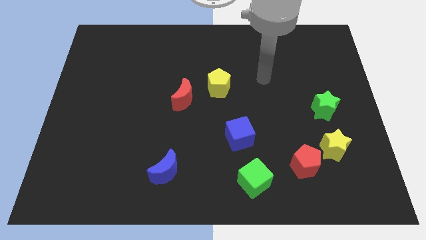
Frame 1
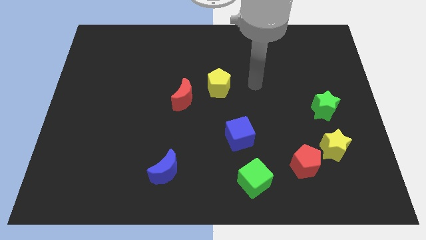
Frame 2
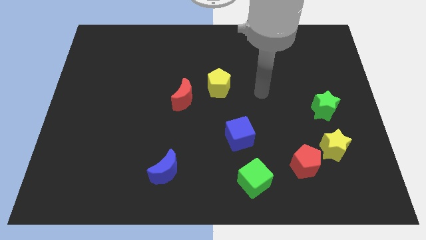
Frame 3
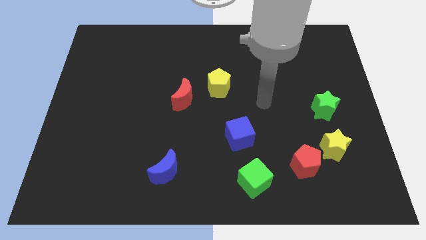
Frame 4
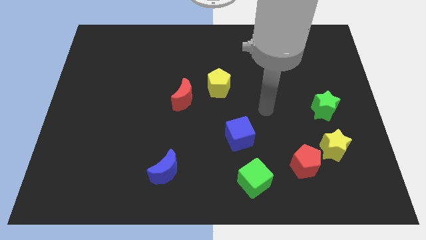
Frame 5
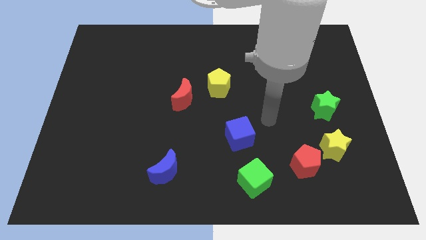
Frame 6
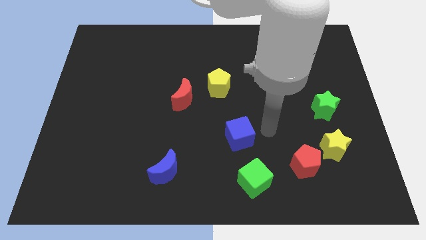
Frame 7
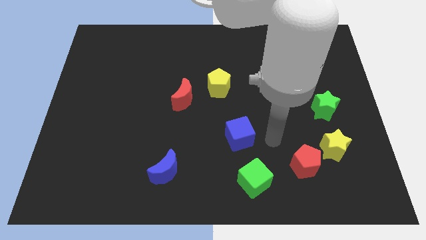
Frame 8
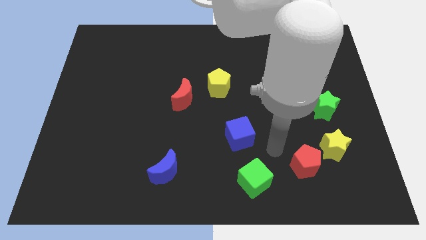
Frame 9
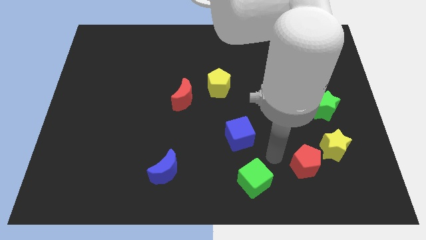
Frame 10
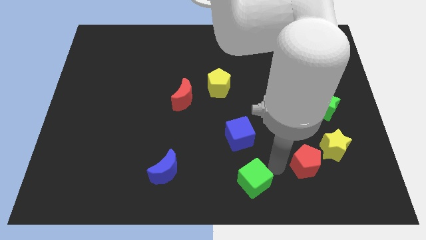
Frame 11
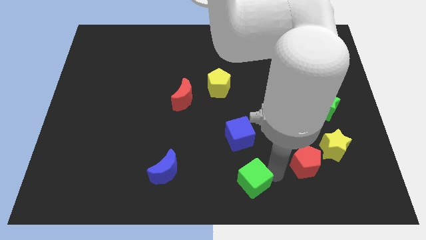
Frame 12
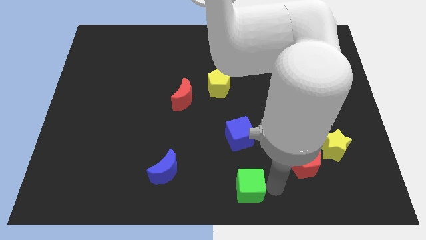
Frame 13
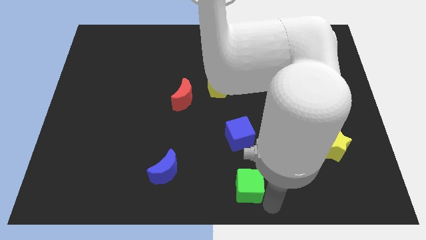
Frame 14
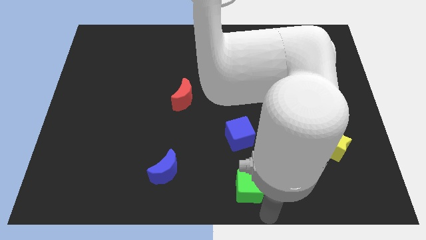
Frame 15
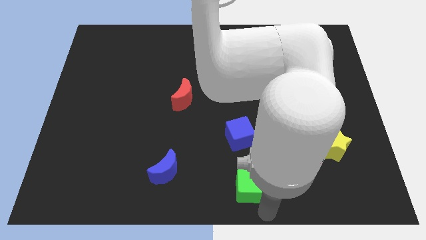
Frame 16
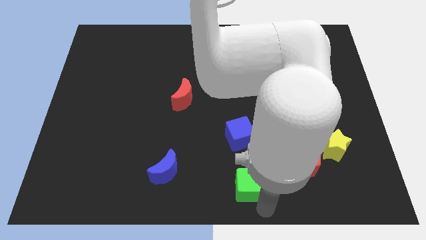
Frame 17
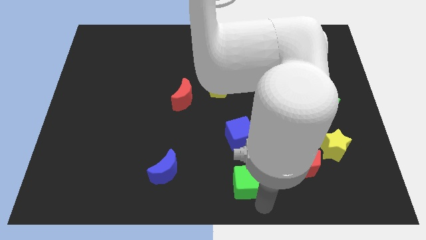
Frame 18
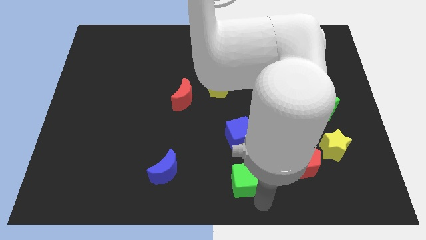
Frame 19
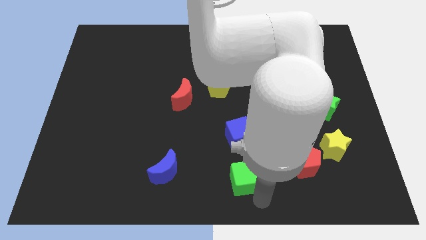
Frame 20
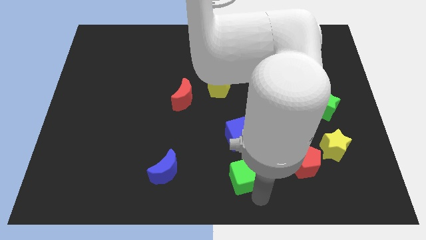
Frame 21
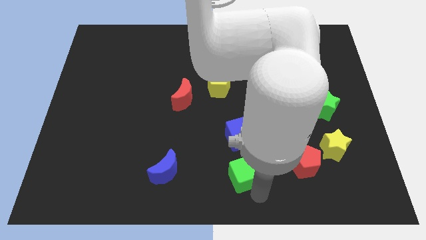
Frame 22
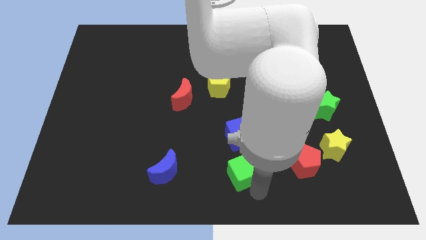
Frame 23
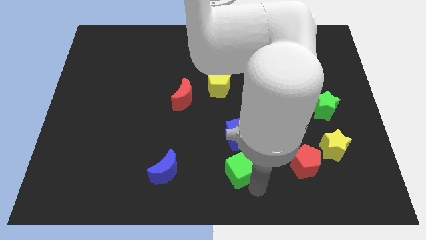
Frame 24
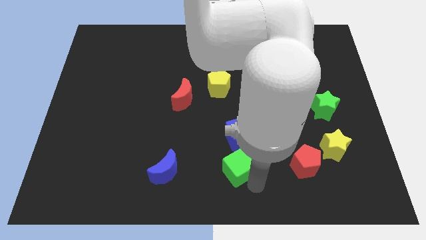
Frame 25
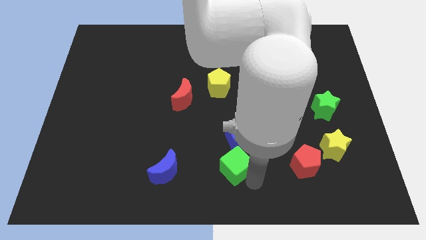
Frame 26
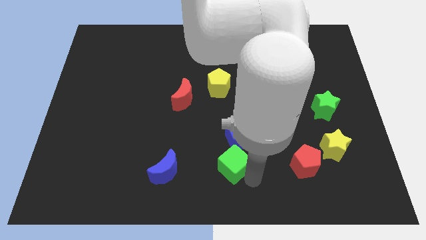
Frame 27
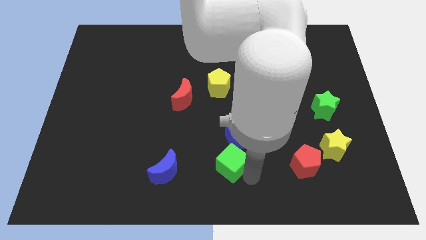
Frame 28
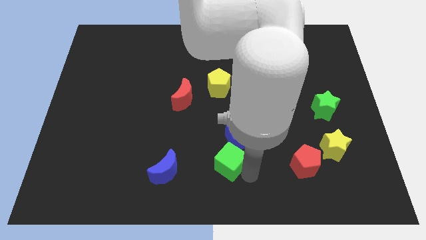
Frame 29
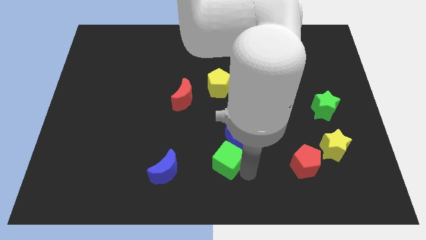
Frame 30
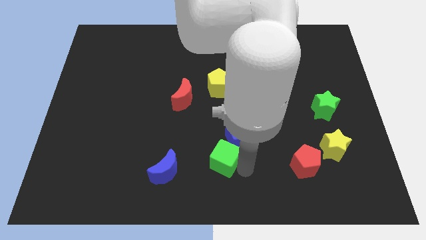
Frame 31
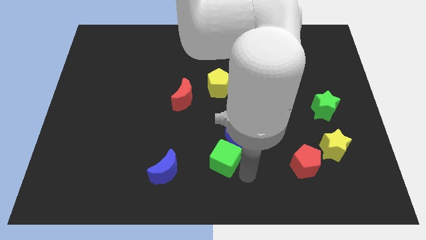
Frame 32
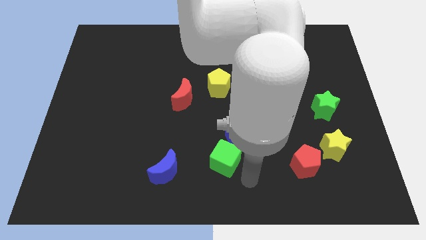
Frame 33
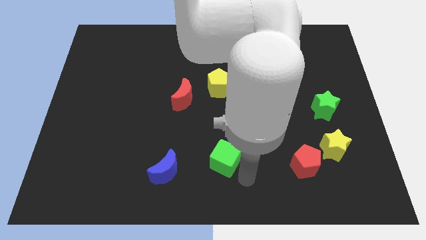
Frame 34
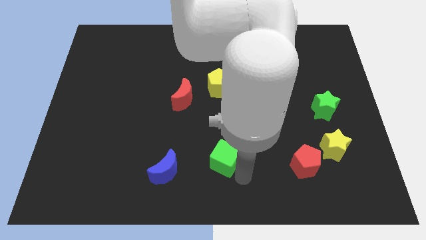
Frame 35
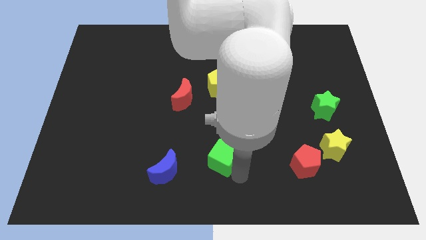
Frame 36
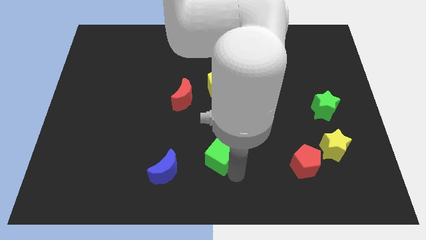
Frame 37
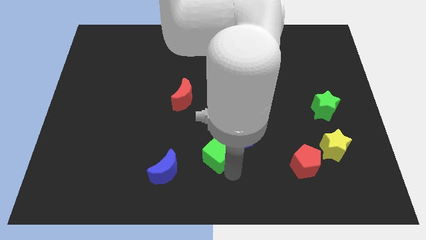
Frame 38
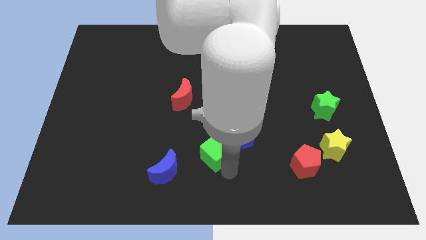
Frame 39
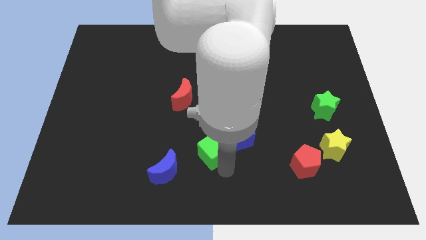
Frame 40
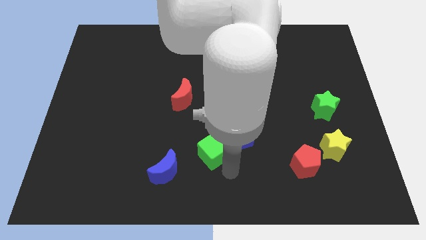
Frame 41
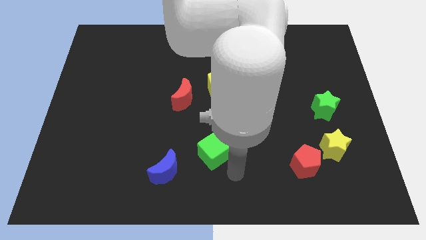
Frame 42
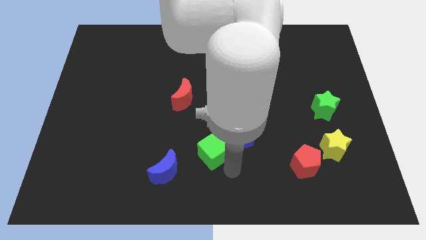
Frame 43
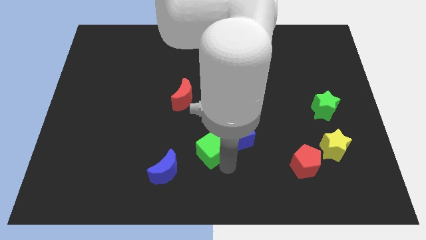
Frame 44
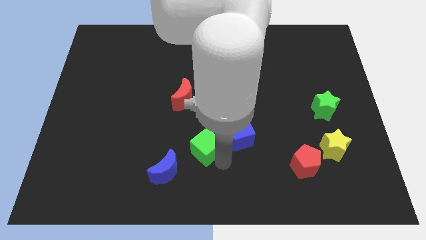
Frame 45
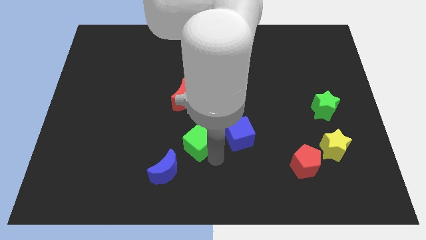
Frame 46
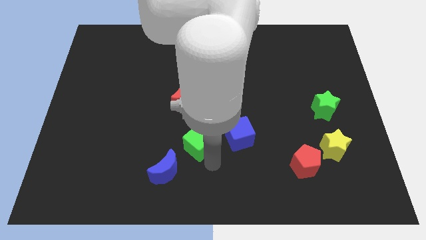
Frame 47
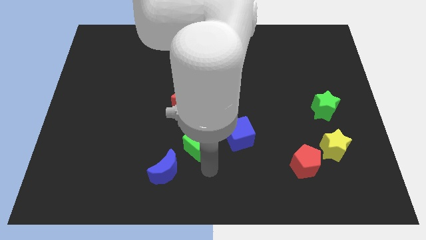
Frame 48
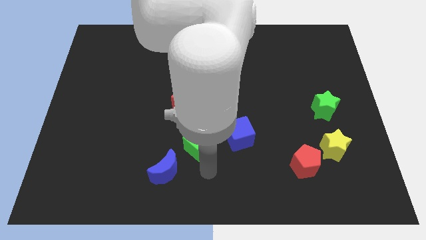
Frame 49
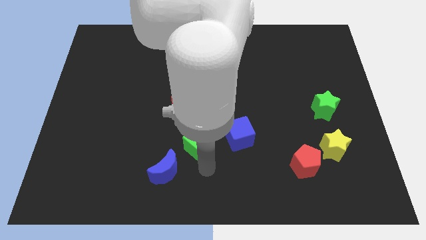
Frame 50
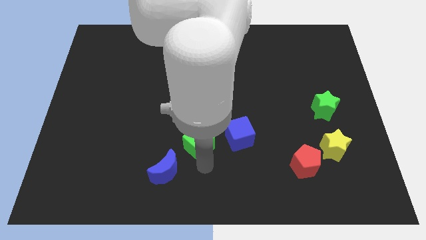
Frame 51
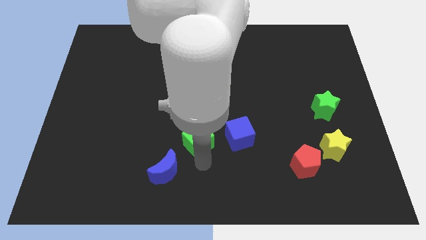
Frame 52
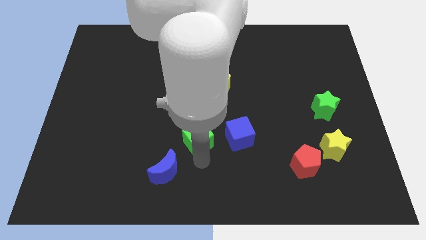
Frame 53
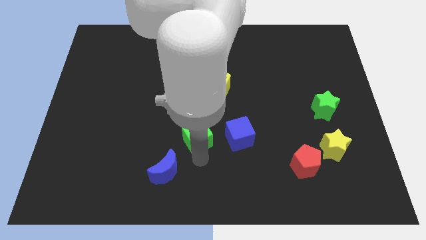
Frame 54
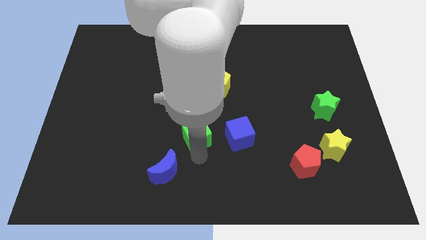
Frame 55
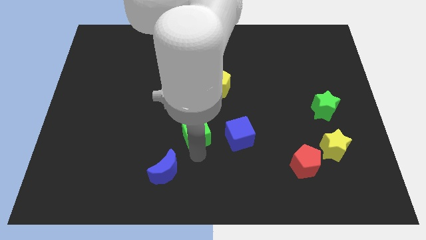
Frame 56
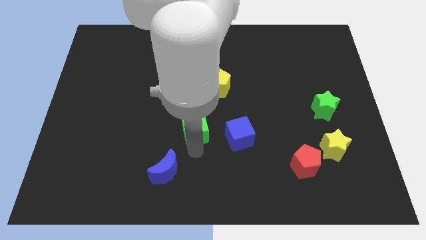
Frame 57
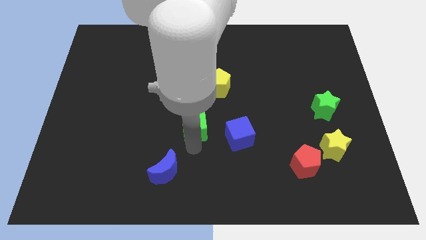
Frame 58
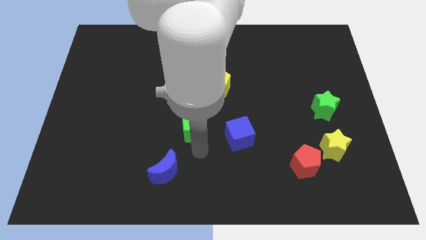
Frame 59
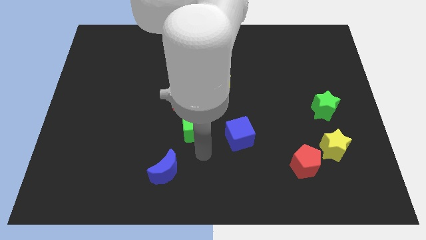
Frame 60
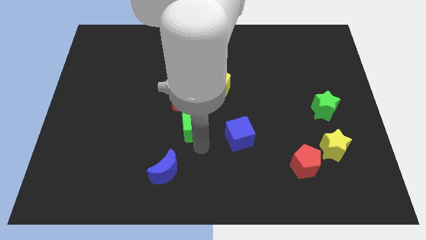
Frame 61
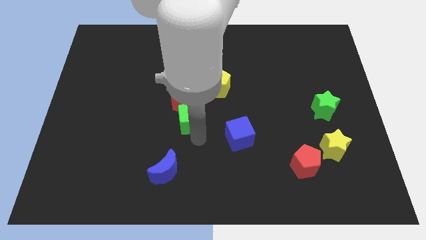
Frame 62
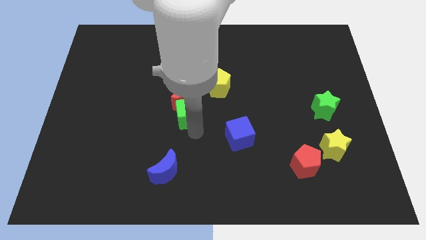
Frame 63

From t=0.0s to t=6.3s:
move the green cube next to the red moon

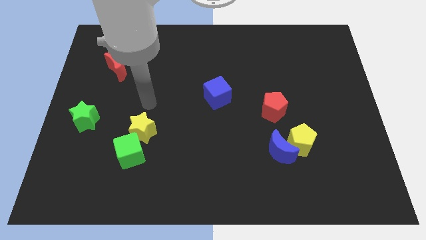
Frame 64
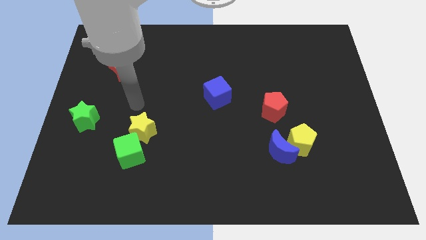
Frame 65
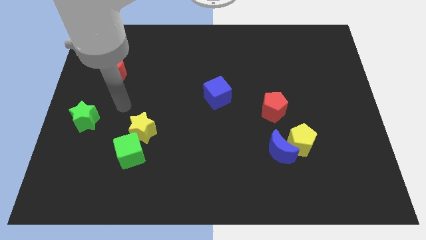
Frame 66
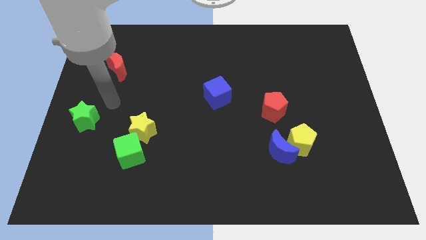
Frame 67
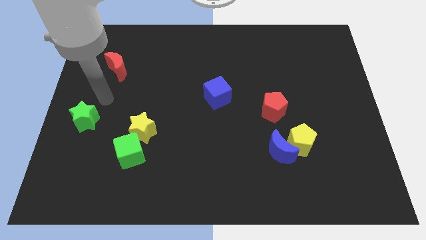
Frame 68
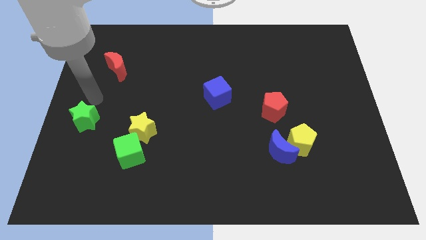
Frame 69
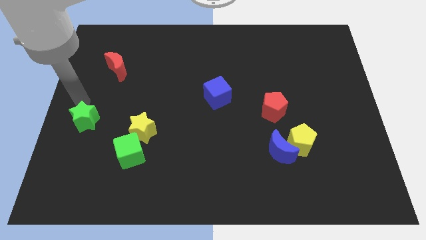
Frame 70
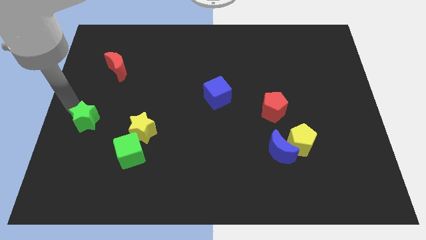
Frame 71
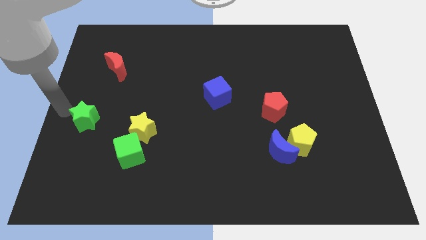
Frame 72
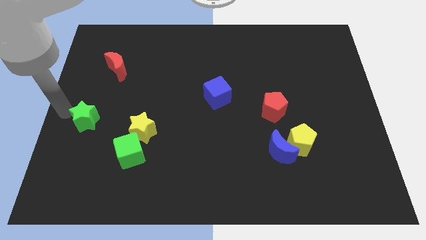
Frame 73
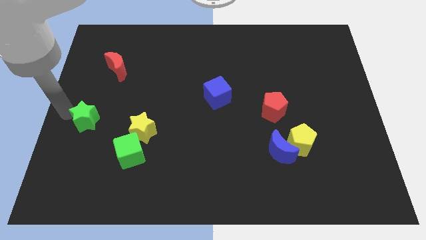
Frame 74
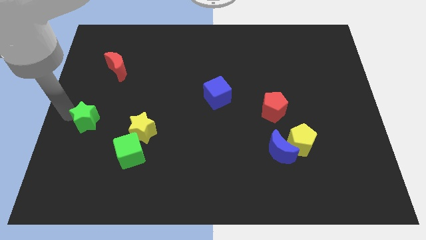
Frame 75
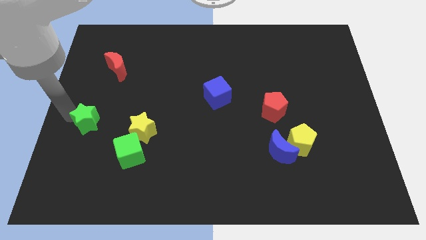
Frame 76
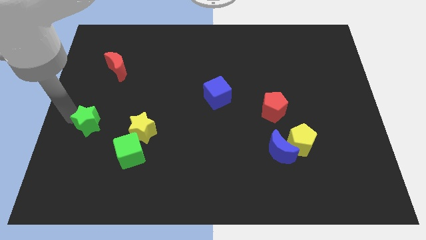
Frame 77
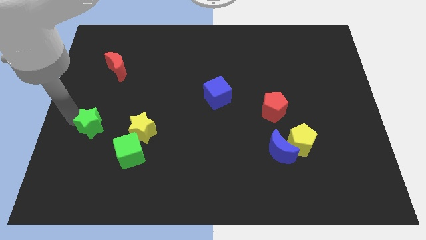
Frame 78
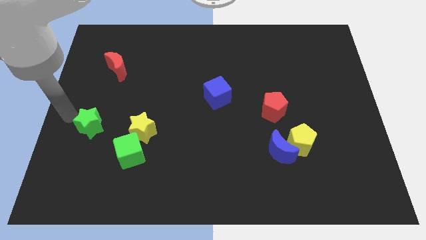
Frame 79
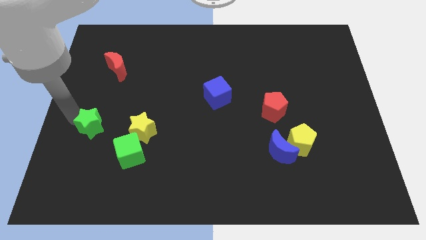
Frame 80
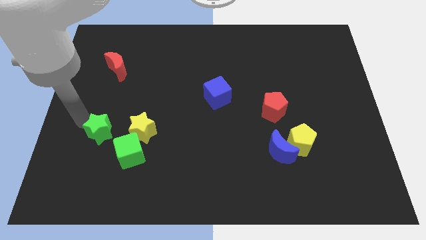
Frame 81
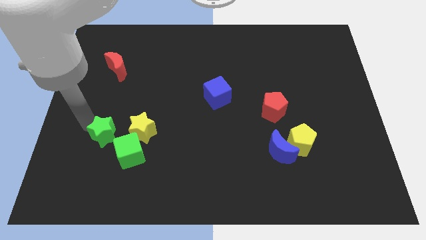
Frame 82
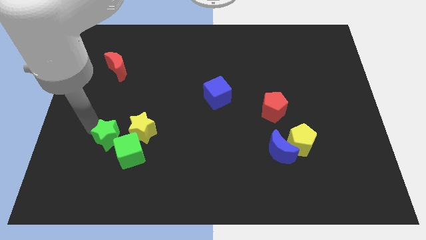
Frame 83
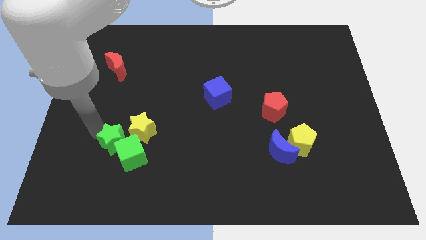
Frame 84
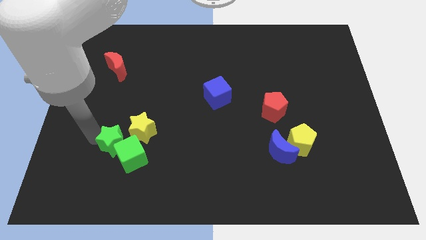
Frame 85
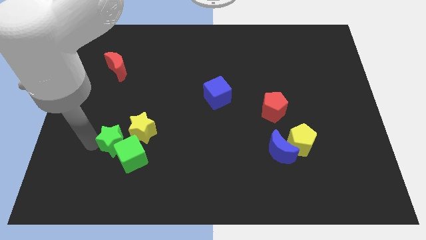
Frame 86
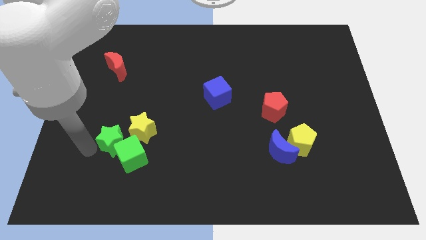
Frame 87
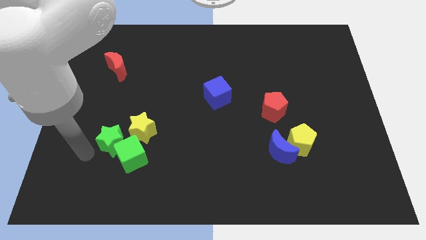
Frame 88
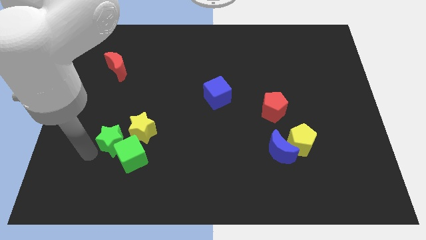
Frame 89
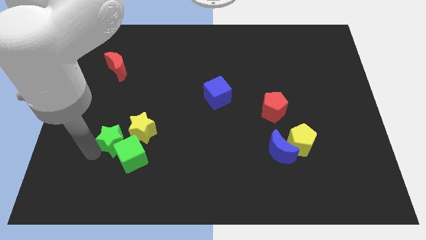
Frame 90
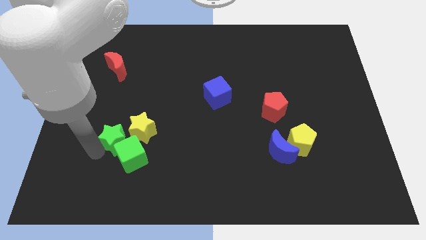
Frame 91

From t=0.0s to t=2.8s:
slide the green star to the yellow star
